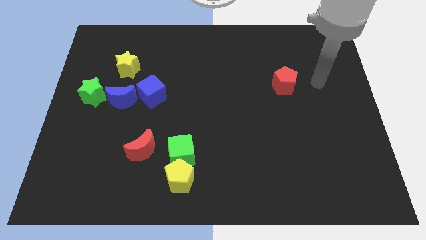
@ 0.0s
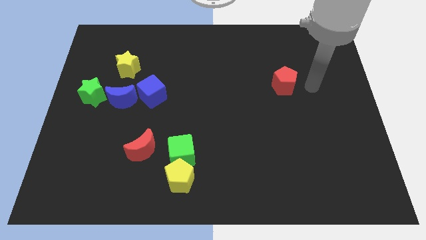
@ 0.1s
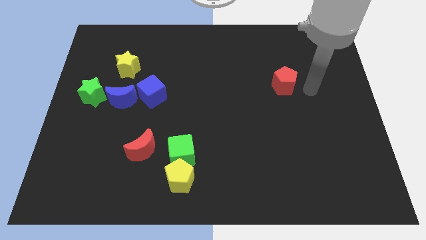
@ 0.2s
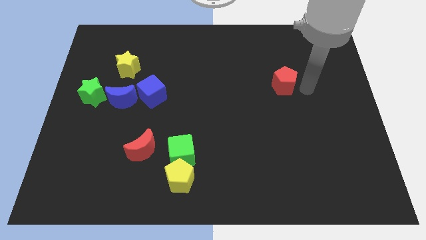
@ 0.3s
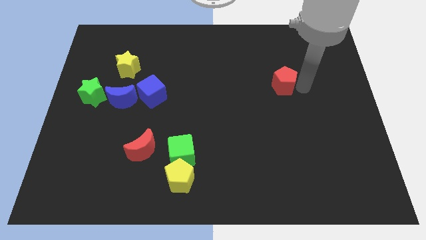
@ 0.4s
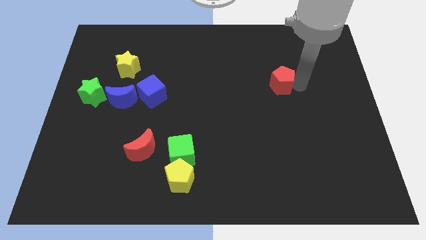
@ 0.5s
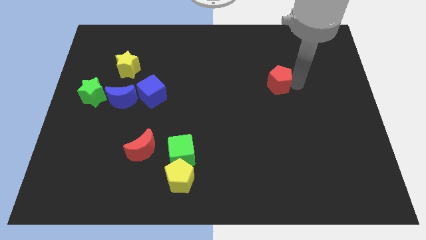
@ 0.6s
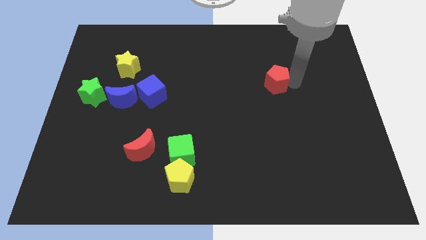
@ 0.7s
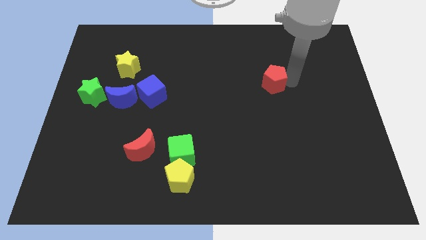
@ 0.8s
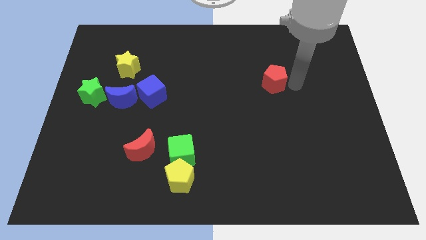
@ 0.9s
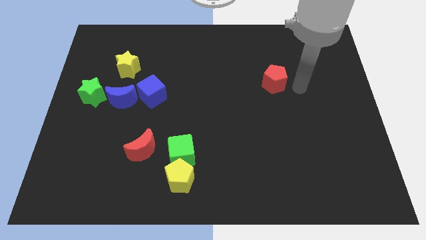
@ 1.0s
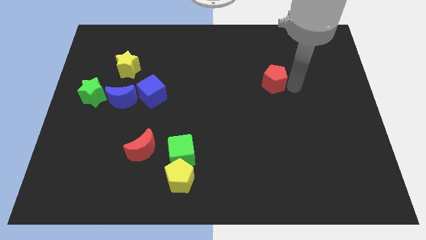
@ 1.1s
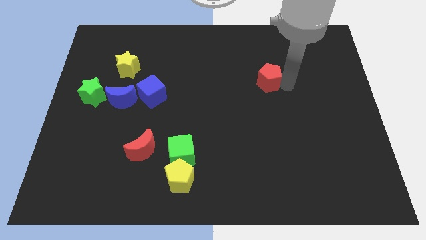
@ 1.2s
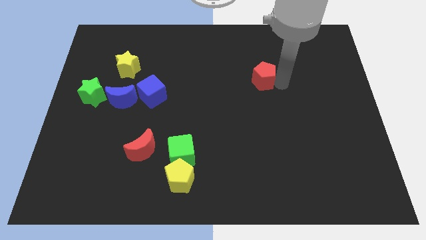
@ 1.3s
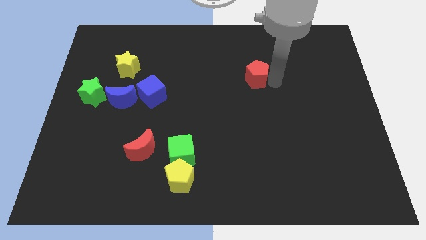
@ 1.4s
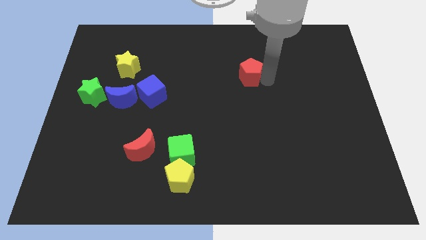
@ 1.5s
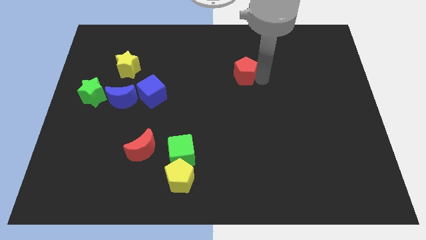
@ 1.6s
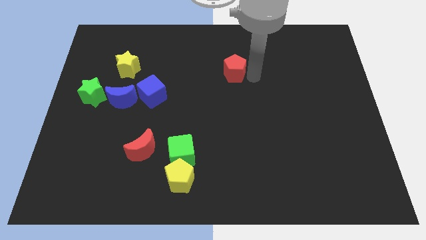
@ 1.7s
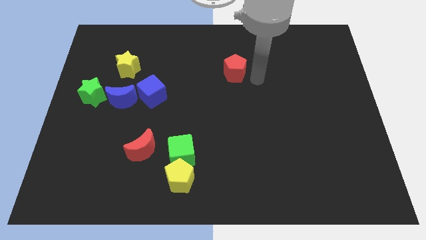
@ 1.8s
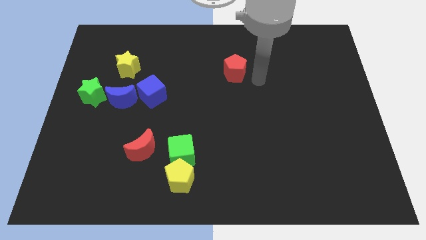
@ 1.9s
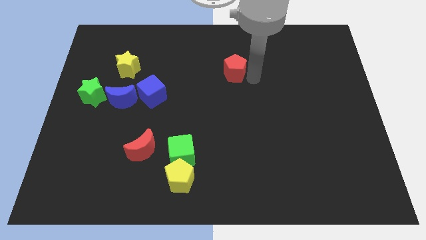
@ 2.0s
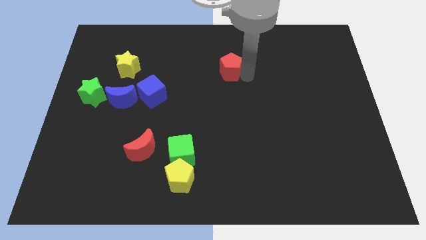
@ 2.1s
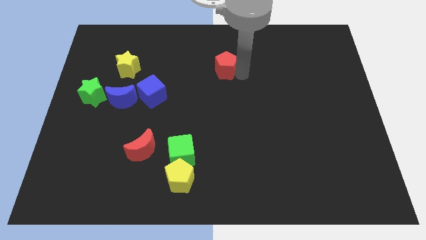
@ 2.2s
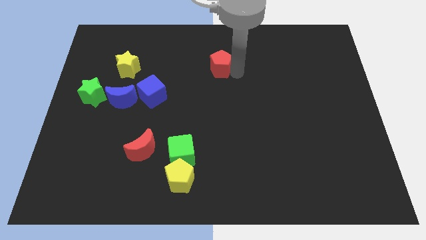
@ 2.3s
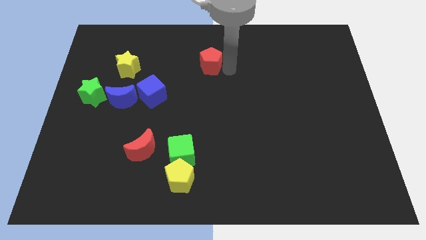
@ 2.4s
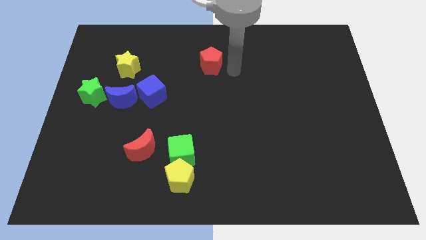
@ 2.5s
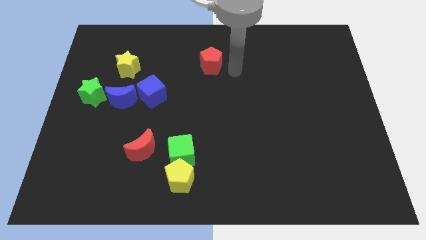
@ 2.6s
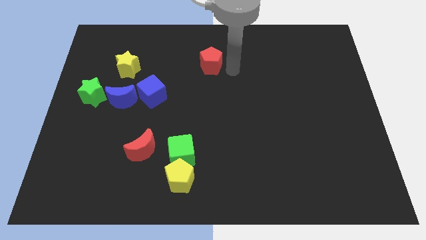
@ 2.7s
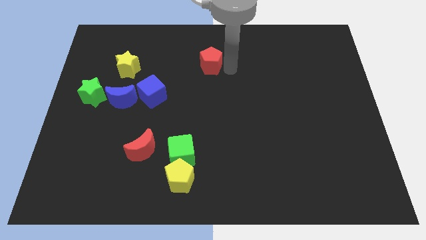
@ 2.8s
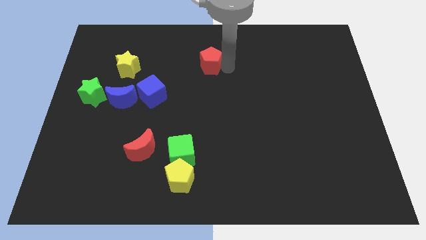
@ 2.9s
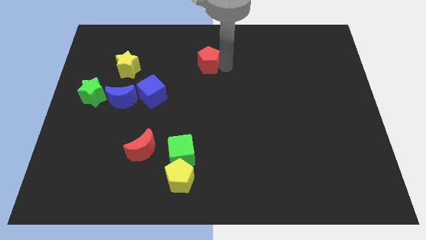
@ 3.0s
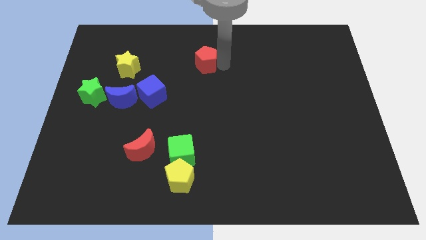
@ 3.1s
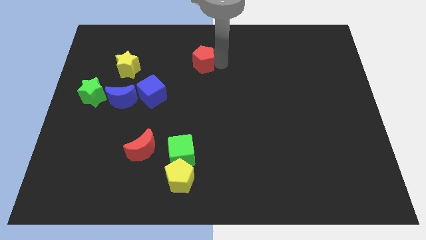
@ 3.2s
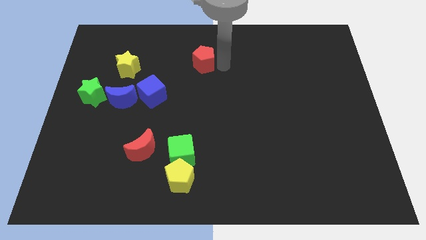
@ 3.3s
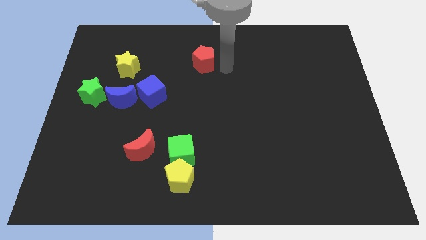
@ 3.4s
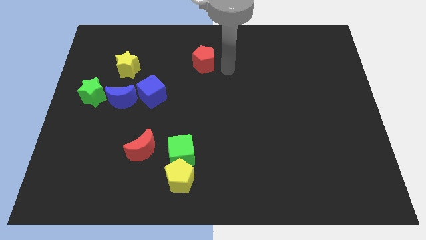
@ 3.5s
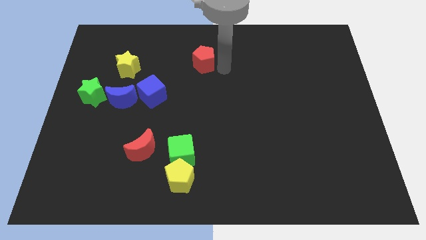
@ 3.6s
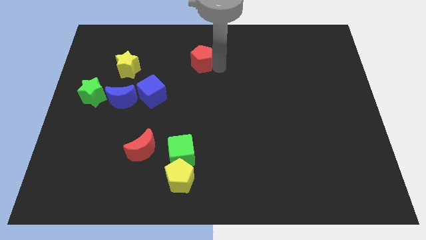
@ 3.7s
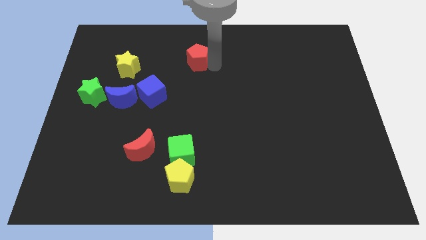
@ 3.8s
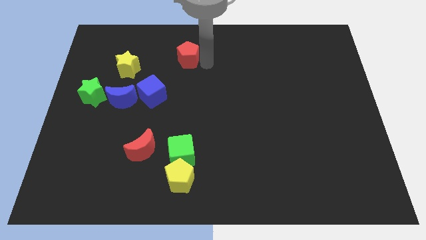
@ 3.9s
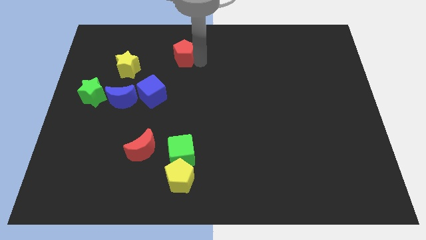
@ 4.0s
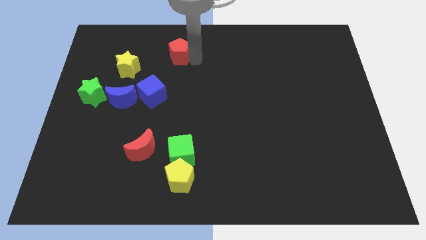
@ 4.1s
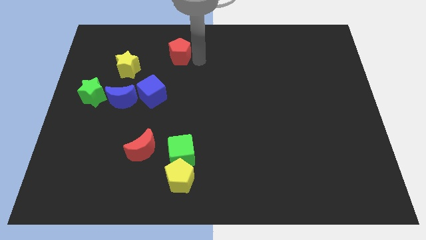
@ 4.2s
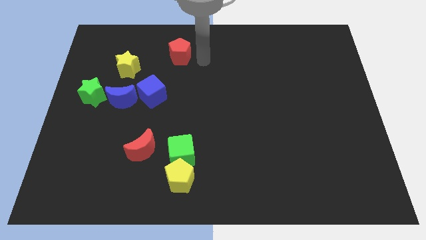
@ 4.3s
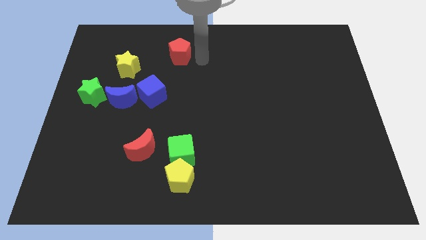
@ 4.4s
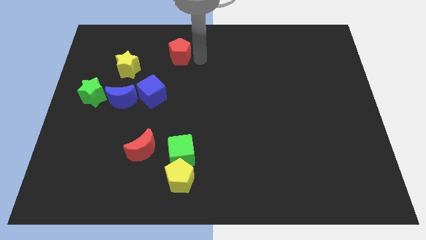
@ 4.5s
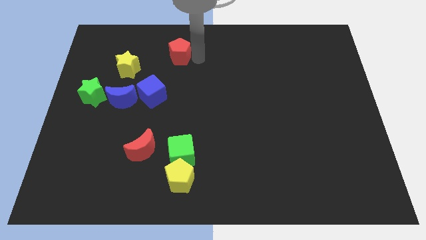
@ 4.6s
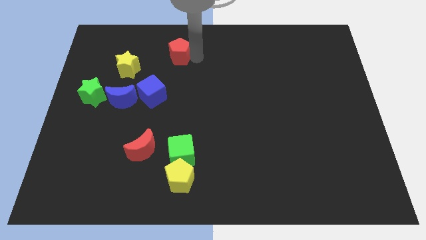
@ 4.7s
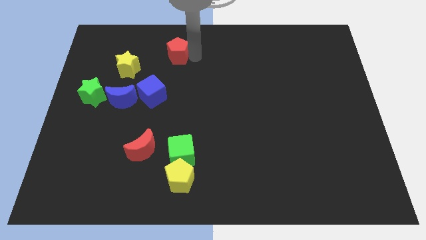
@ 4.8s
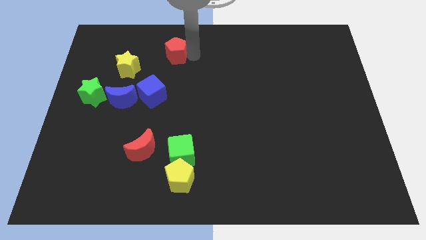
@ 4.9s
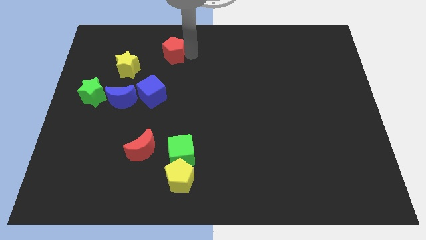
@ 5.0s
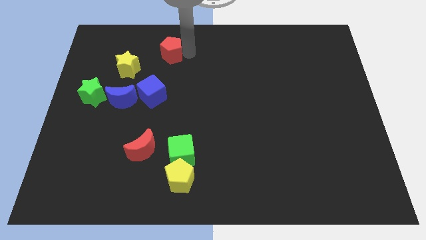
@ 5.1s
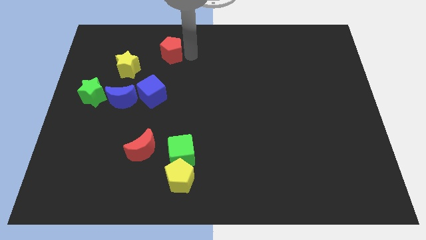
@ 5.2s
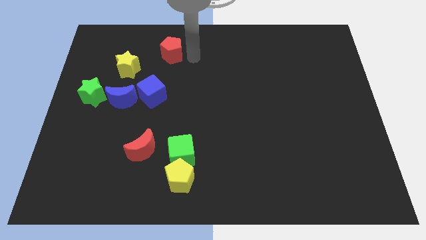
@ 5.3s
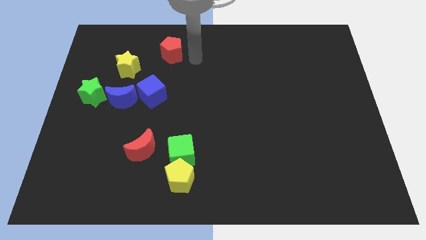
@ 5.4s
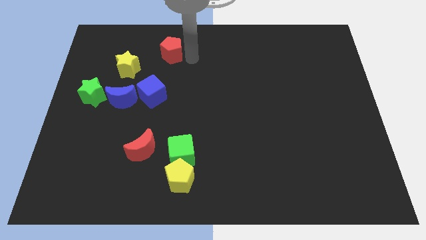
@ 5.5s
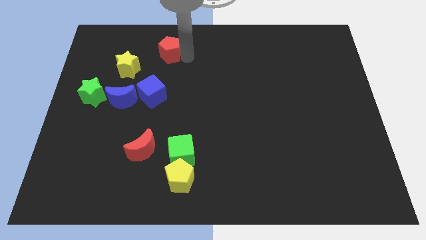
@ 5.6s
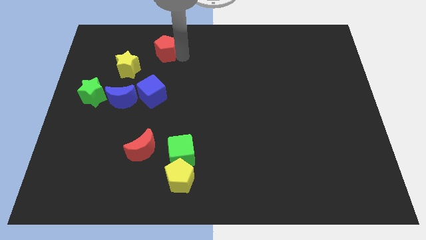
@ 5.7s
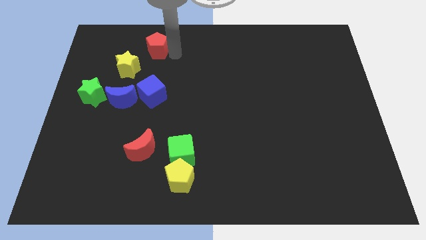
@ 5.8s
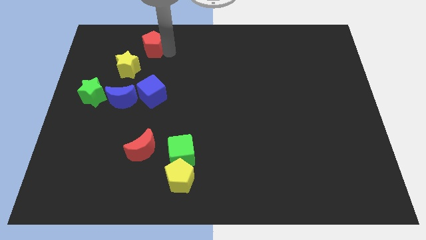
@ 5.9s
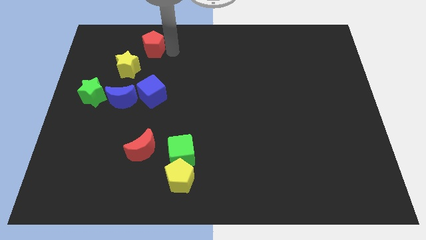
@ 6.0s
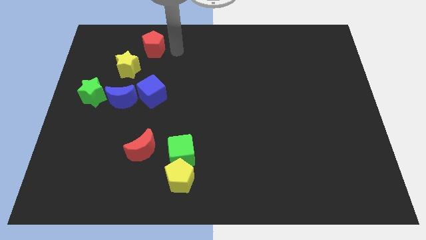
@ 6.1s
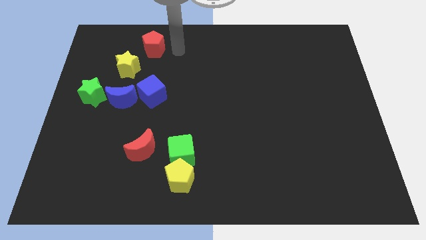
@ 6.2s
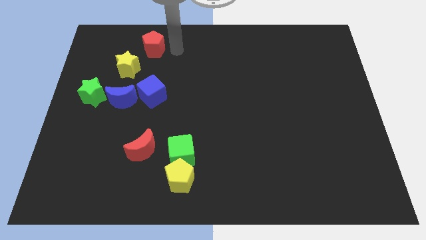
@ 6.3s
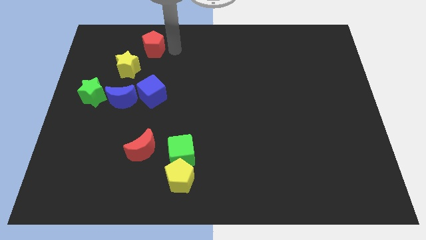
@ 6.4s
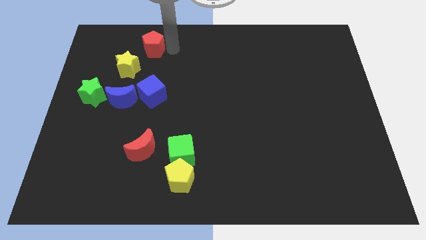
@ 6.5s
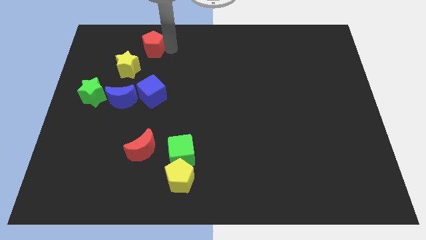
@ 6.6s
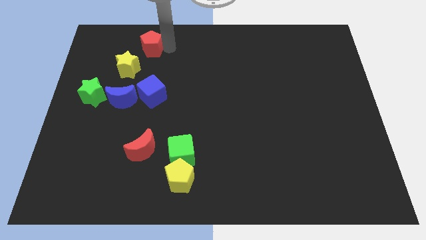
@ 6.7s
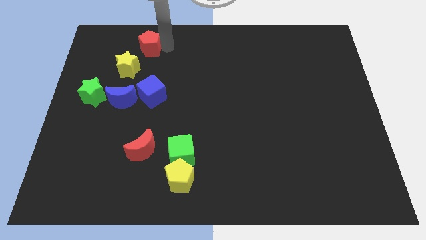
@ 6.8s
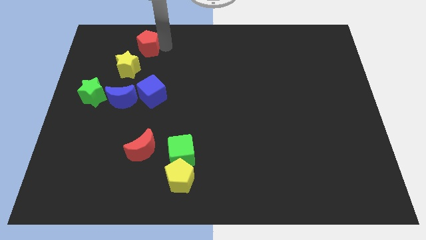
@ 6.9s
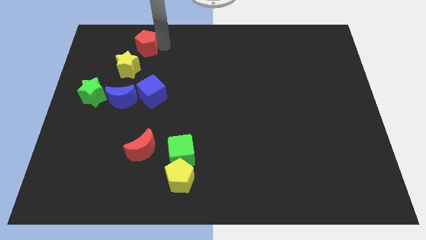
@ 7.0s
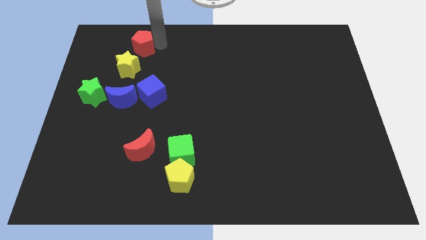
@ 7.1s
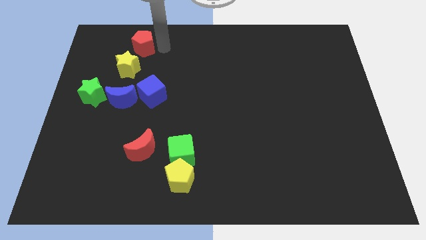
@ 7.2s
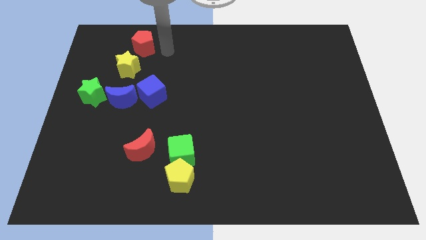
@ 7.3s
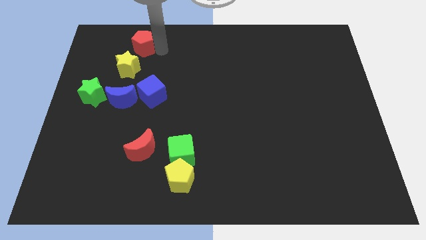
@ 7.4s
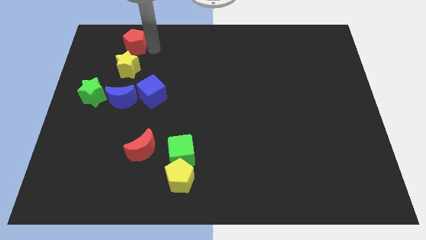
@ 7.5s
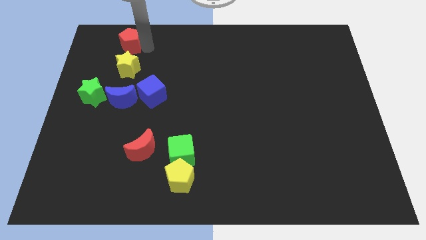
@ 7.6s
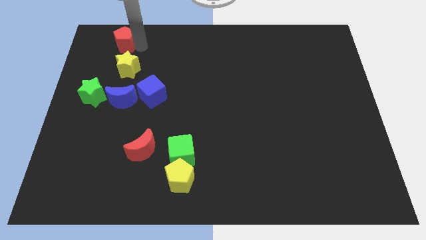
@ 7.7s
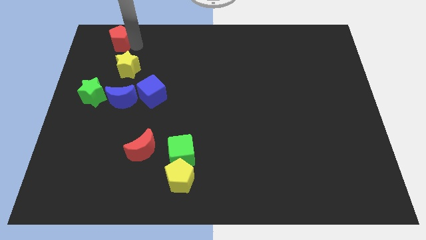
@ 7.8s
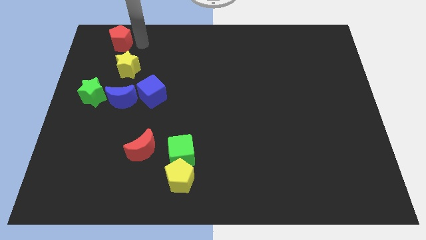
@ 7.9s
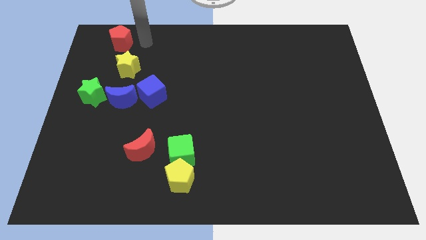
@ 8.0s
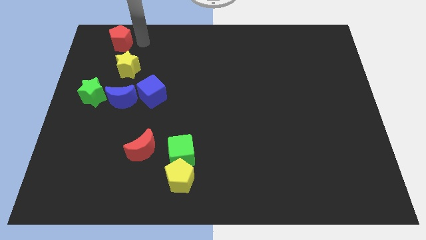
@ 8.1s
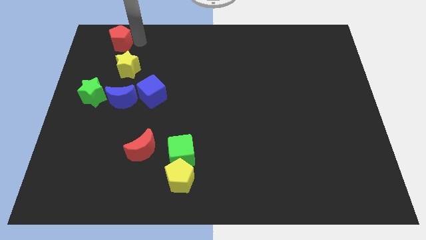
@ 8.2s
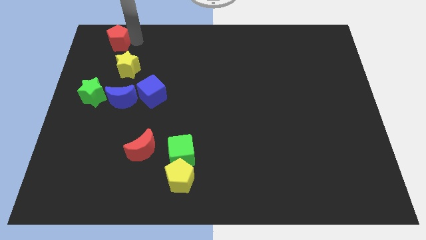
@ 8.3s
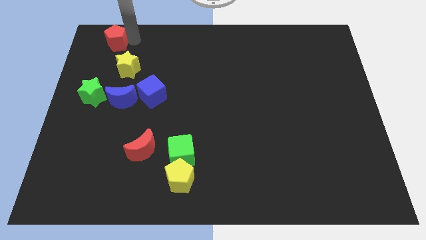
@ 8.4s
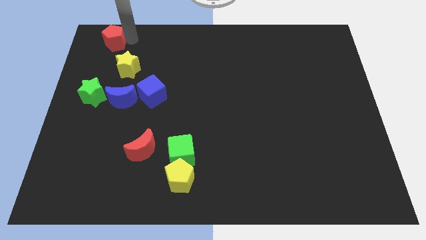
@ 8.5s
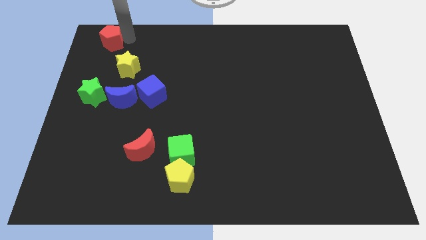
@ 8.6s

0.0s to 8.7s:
put the red pentagon to the upper left corner
